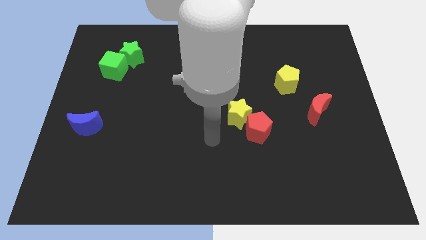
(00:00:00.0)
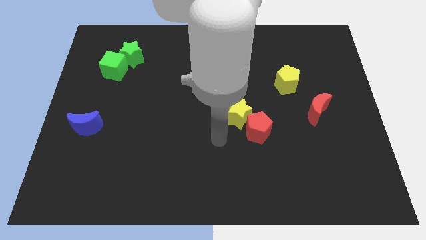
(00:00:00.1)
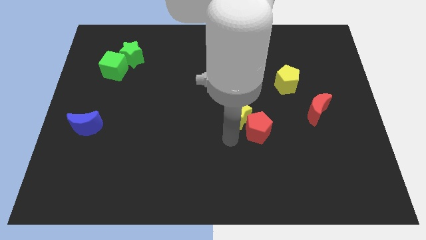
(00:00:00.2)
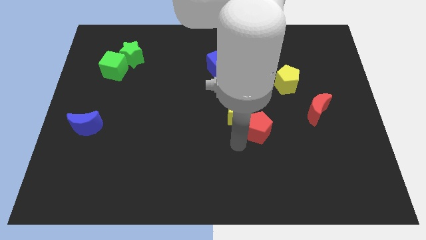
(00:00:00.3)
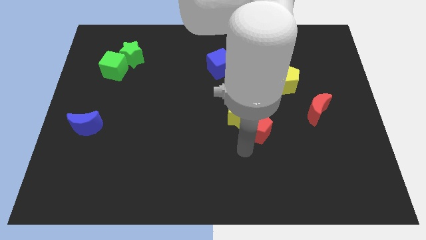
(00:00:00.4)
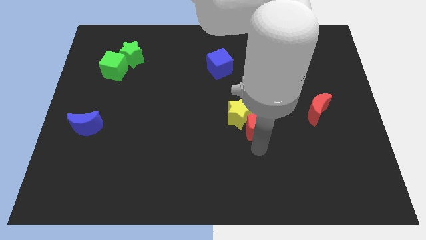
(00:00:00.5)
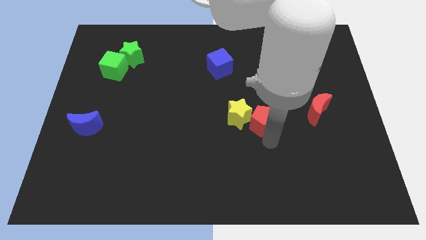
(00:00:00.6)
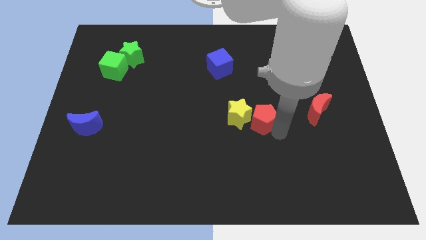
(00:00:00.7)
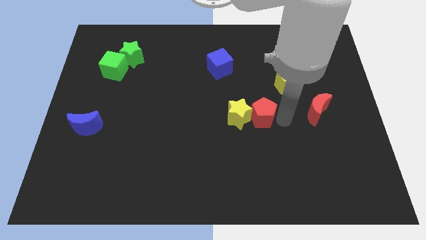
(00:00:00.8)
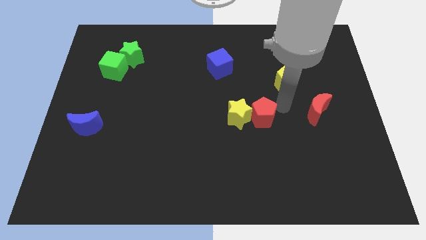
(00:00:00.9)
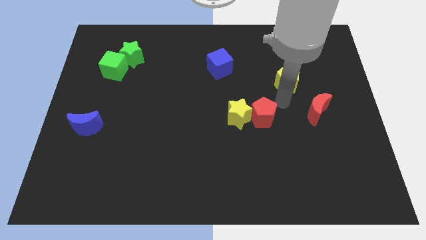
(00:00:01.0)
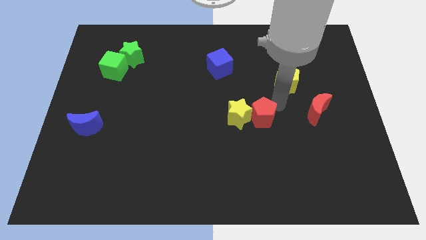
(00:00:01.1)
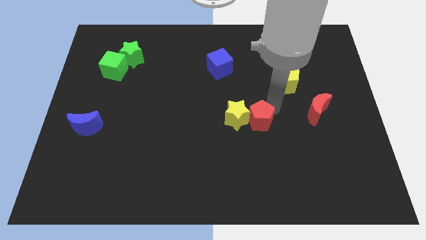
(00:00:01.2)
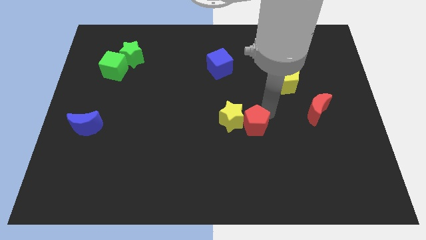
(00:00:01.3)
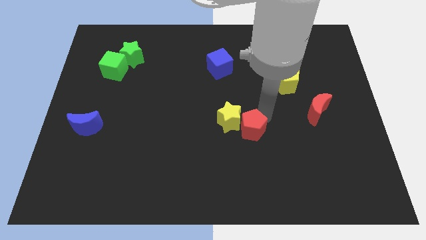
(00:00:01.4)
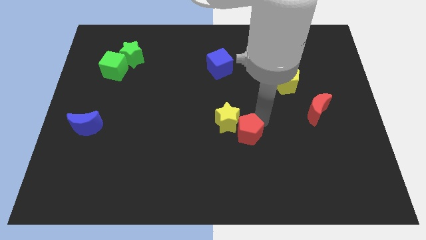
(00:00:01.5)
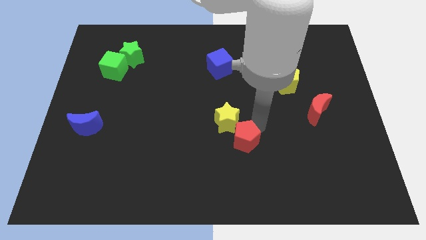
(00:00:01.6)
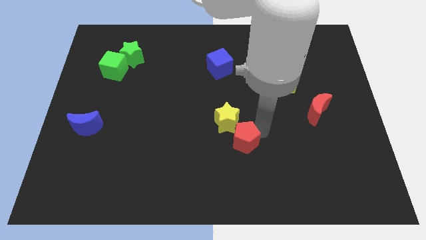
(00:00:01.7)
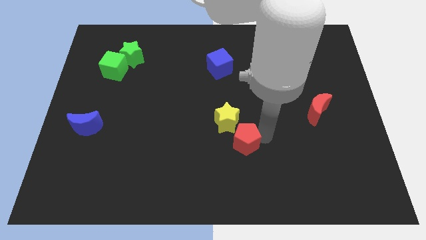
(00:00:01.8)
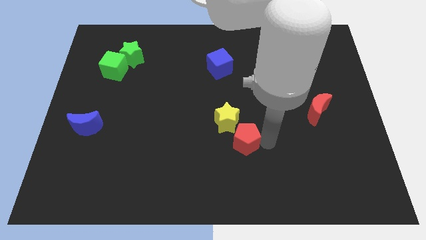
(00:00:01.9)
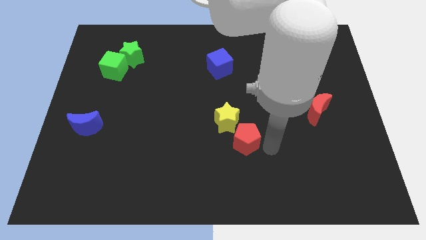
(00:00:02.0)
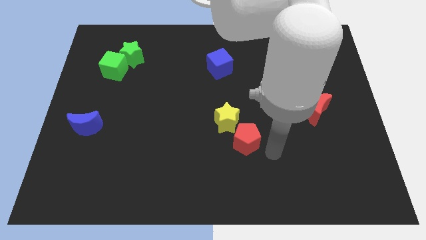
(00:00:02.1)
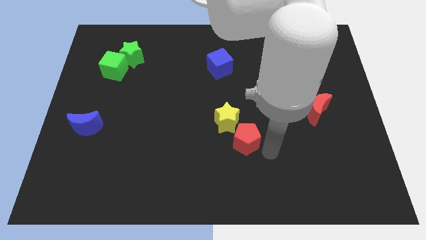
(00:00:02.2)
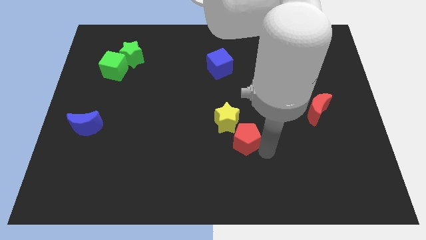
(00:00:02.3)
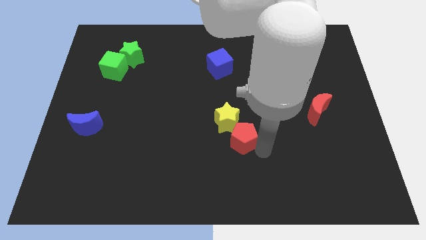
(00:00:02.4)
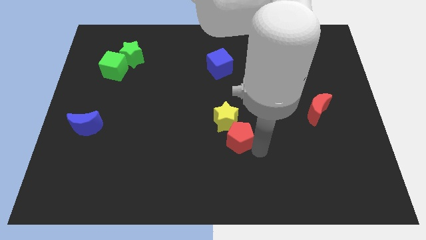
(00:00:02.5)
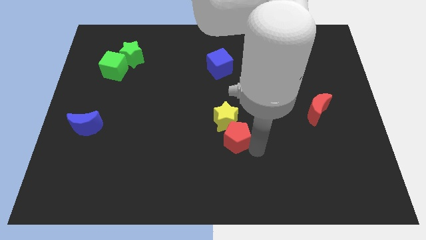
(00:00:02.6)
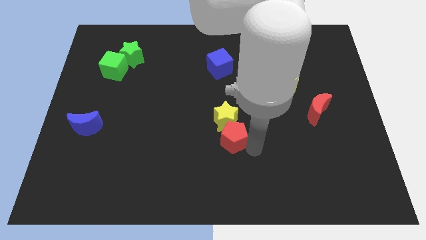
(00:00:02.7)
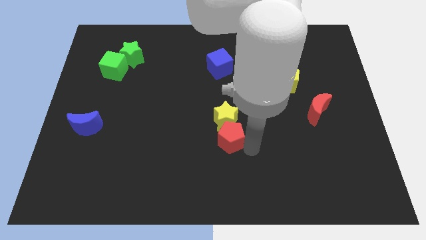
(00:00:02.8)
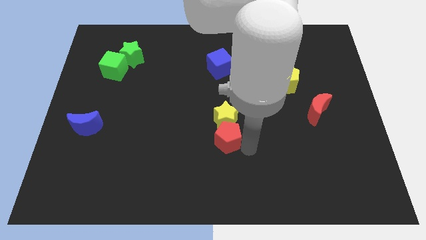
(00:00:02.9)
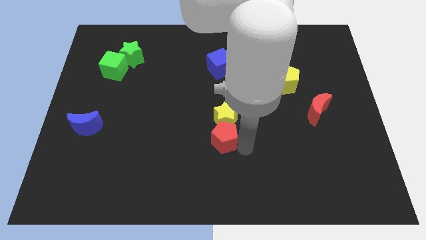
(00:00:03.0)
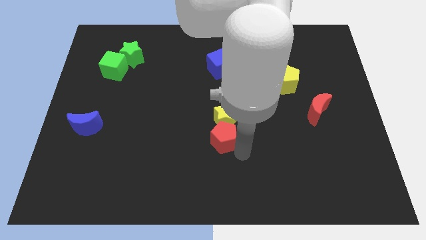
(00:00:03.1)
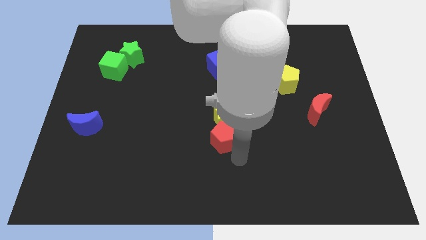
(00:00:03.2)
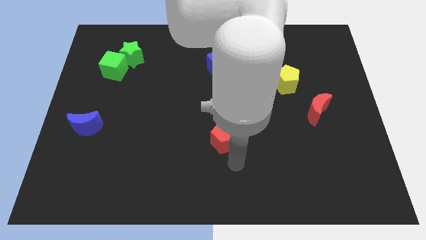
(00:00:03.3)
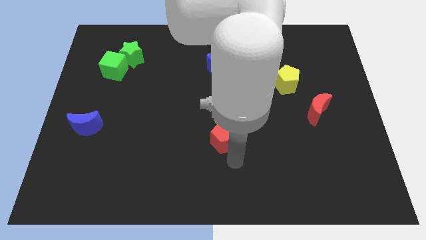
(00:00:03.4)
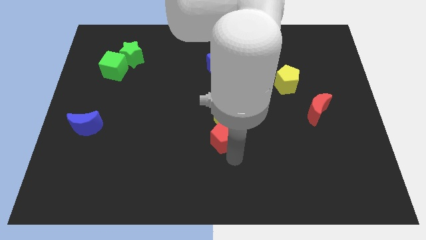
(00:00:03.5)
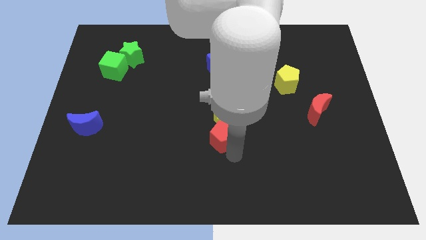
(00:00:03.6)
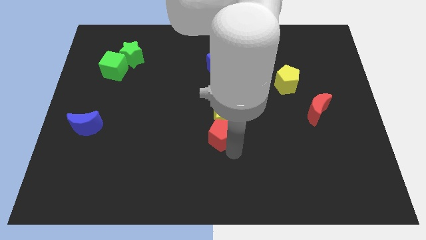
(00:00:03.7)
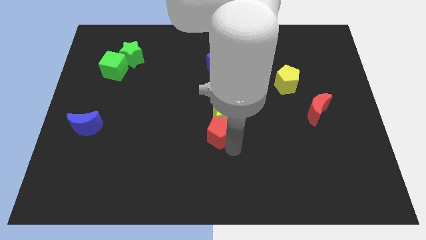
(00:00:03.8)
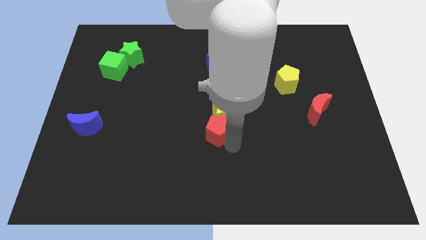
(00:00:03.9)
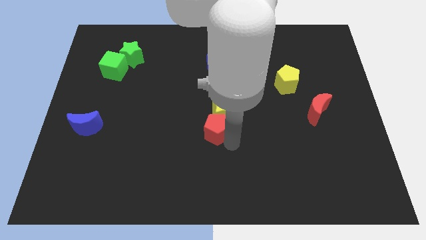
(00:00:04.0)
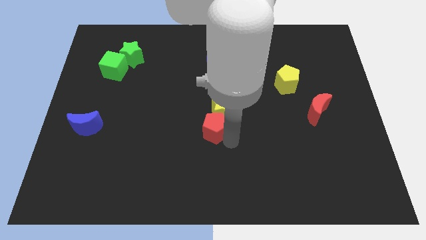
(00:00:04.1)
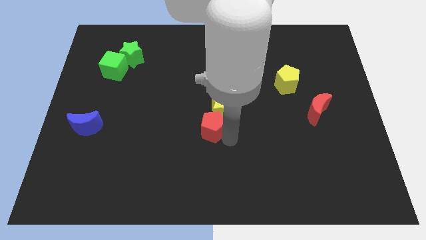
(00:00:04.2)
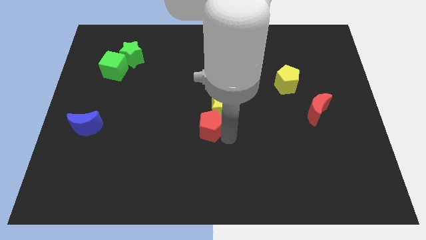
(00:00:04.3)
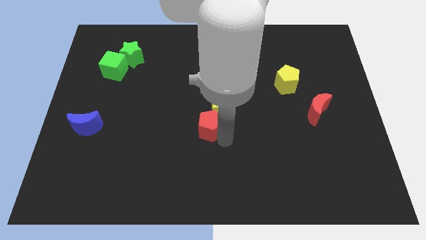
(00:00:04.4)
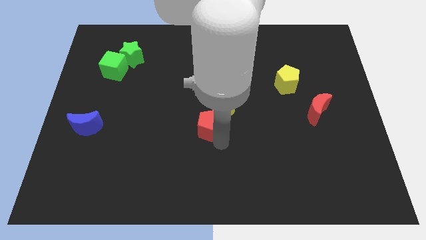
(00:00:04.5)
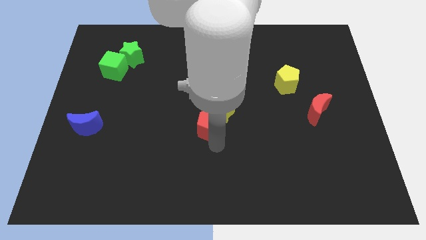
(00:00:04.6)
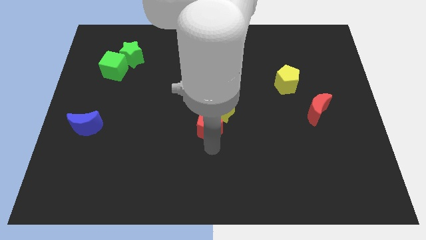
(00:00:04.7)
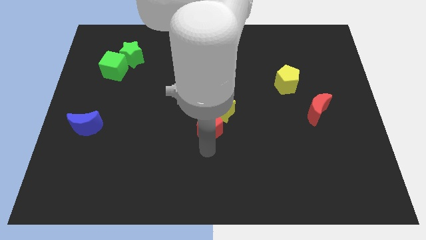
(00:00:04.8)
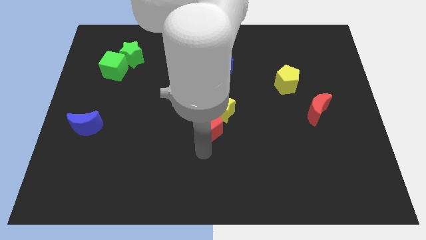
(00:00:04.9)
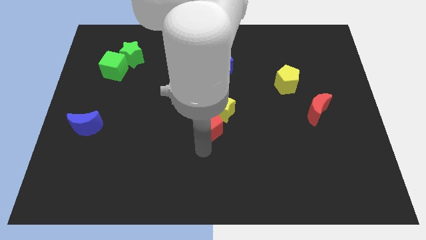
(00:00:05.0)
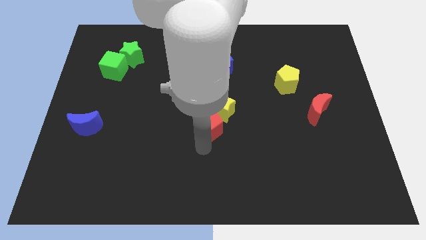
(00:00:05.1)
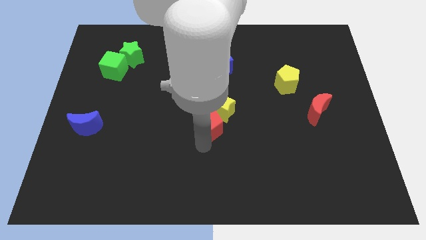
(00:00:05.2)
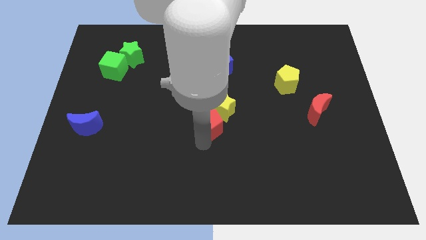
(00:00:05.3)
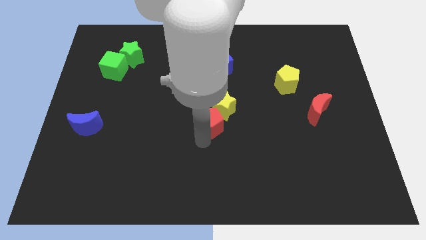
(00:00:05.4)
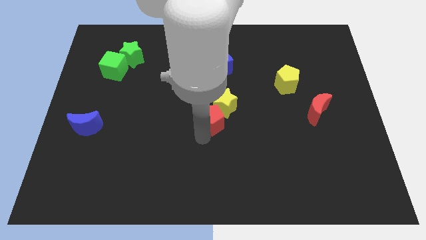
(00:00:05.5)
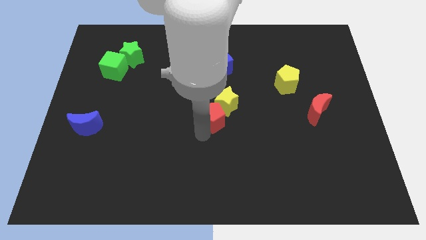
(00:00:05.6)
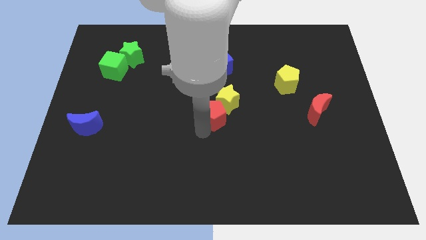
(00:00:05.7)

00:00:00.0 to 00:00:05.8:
slide the red pentagon to the bottom of the blue cube

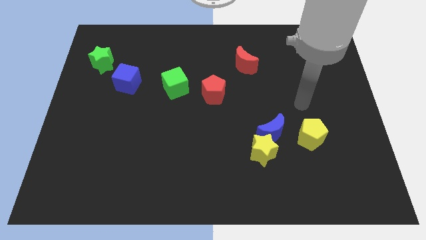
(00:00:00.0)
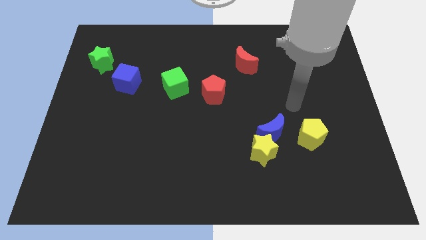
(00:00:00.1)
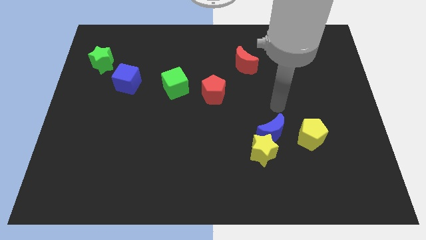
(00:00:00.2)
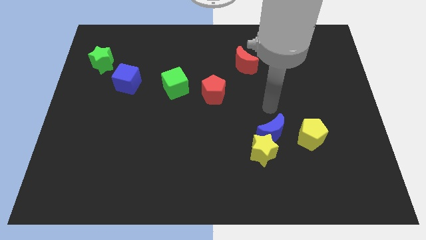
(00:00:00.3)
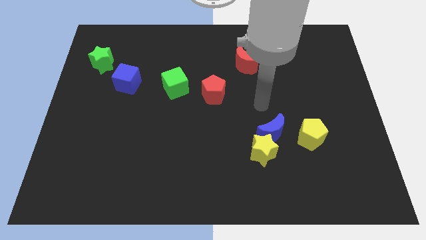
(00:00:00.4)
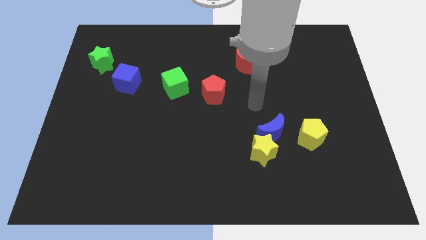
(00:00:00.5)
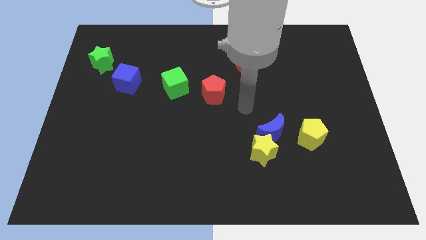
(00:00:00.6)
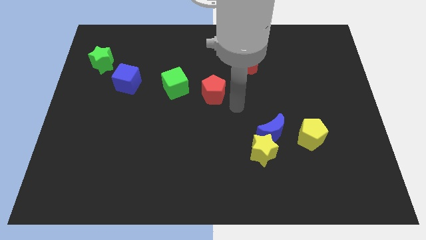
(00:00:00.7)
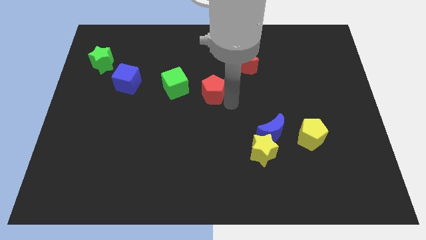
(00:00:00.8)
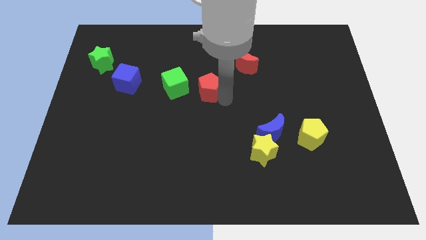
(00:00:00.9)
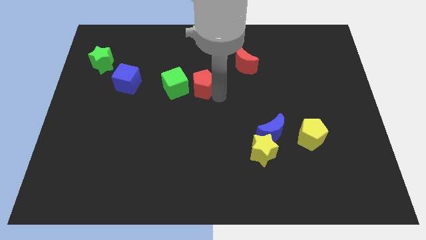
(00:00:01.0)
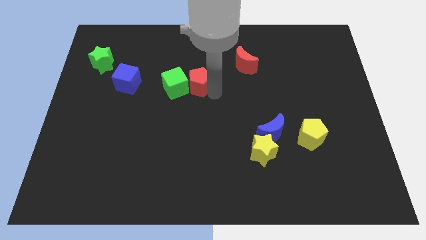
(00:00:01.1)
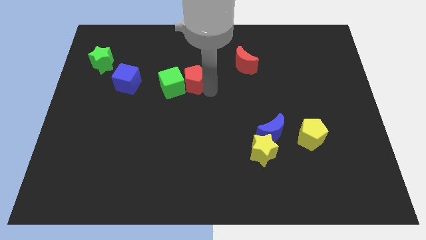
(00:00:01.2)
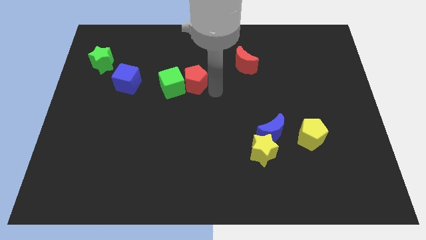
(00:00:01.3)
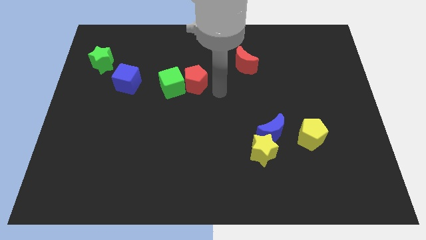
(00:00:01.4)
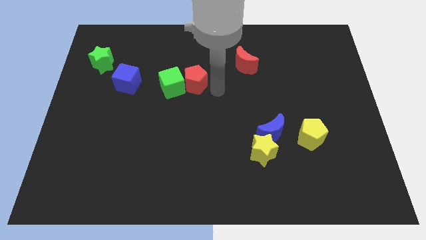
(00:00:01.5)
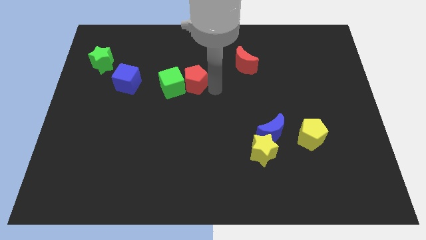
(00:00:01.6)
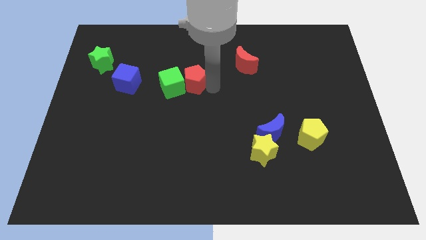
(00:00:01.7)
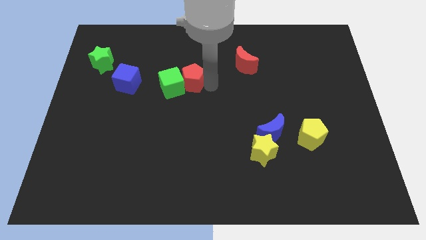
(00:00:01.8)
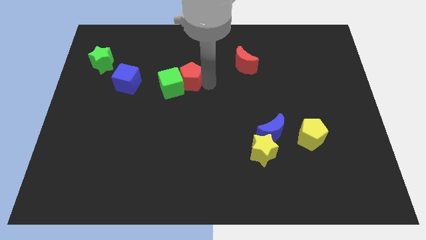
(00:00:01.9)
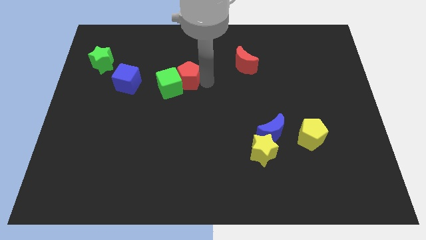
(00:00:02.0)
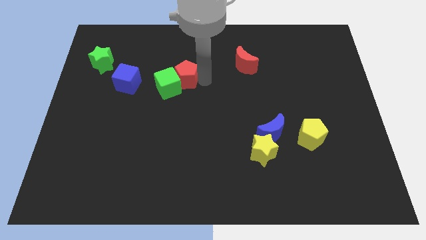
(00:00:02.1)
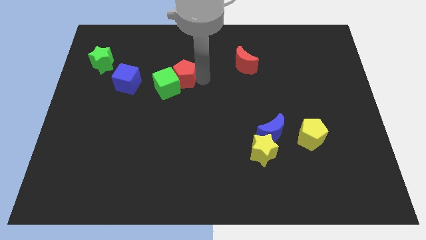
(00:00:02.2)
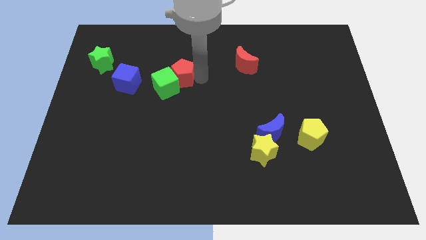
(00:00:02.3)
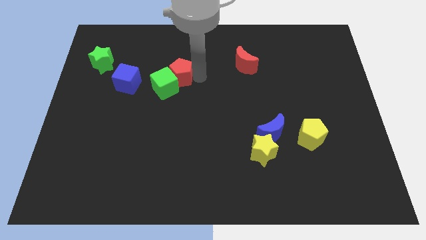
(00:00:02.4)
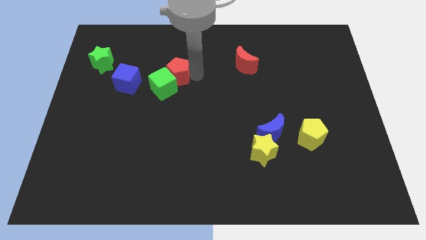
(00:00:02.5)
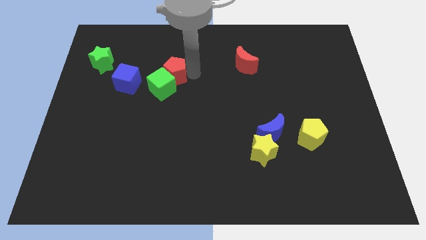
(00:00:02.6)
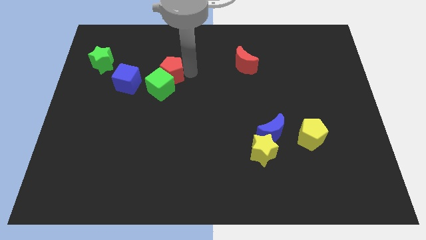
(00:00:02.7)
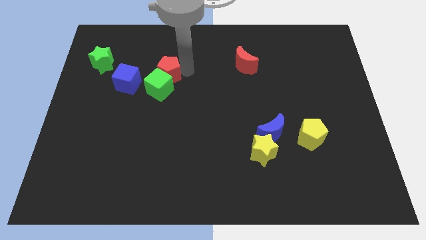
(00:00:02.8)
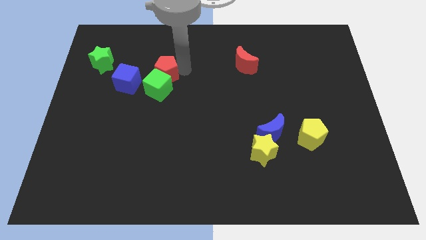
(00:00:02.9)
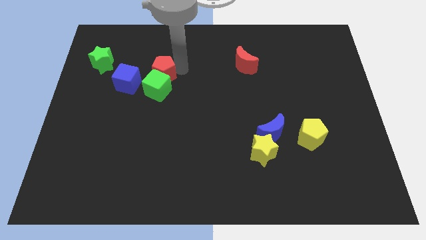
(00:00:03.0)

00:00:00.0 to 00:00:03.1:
slide the red pentagon diagonally up and to the left of the green cube
